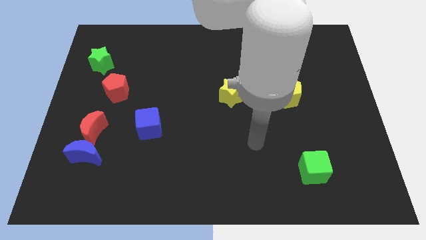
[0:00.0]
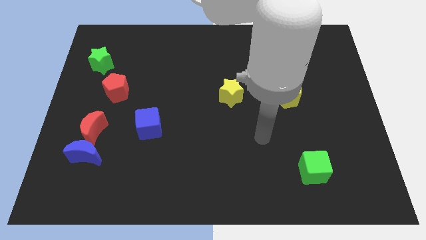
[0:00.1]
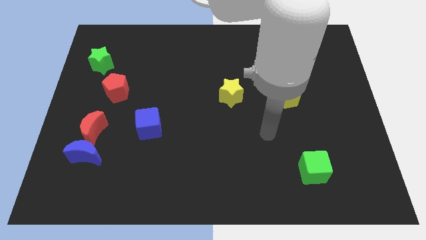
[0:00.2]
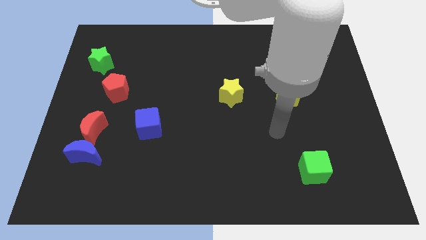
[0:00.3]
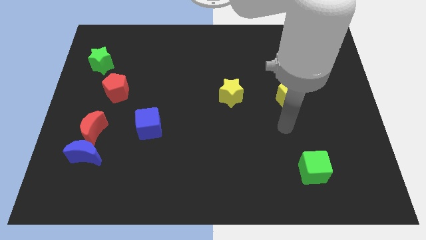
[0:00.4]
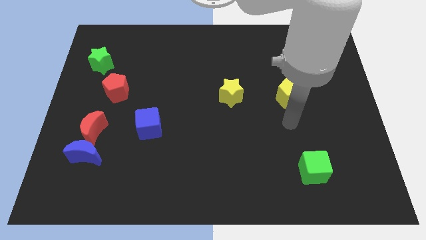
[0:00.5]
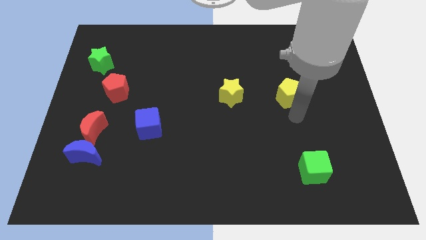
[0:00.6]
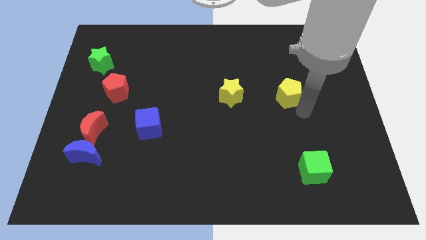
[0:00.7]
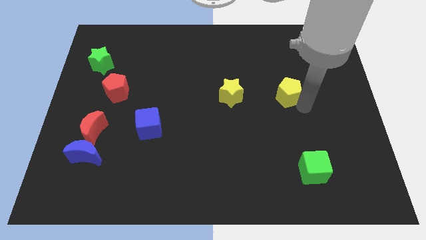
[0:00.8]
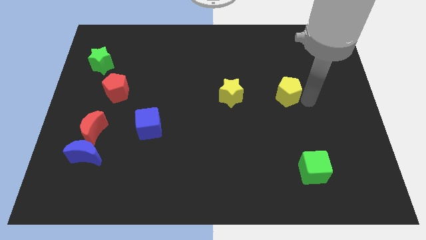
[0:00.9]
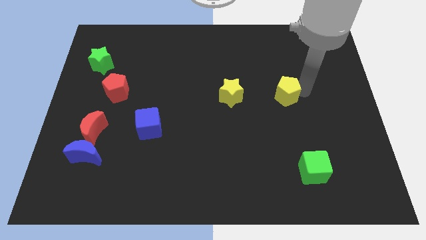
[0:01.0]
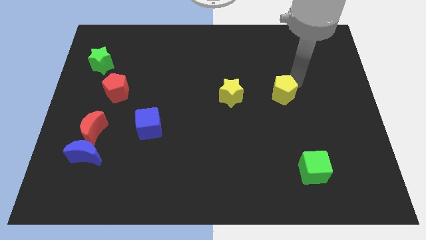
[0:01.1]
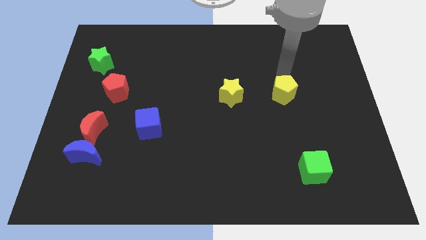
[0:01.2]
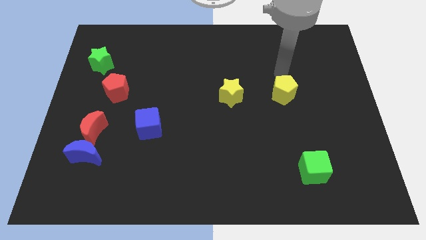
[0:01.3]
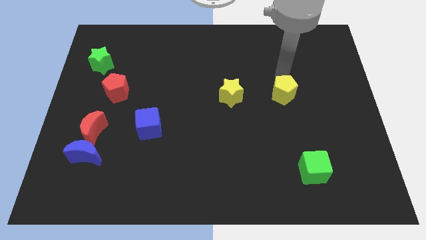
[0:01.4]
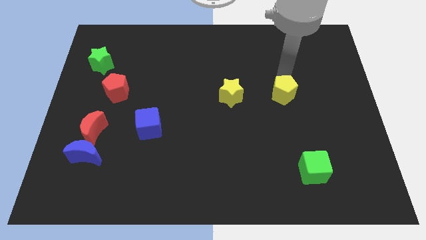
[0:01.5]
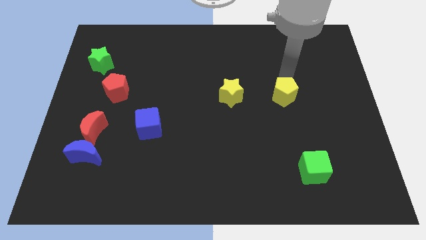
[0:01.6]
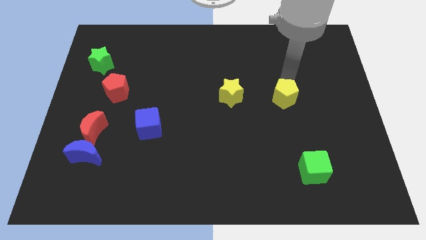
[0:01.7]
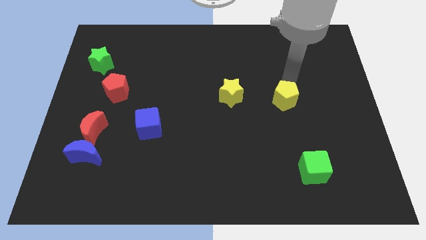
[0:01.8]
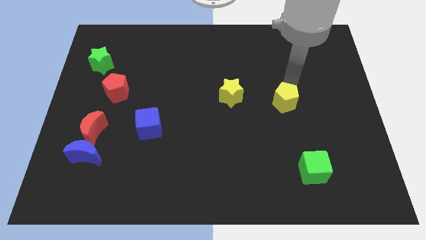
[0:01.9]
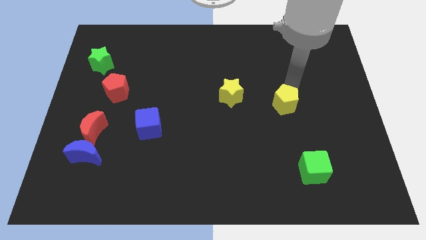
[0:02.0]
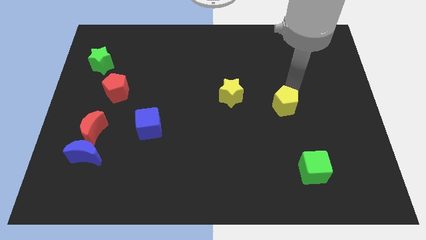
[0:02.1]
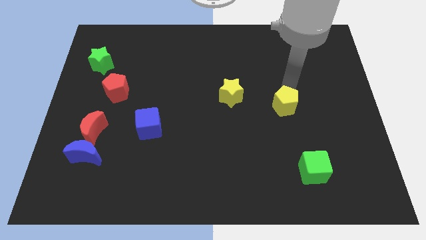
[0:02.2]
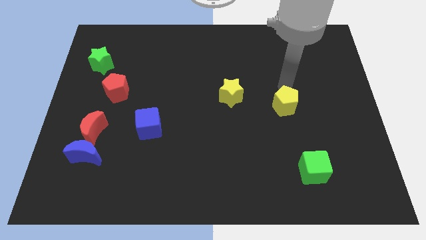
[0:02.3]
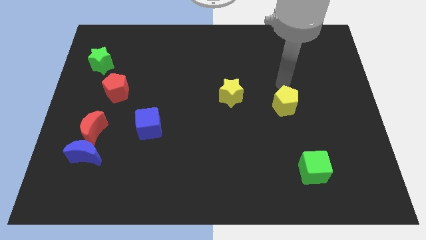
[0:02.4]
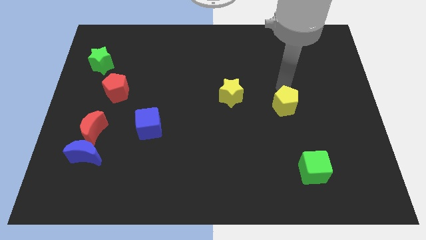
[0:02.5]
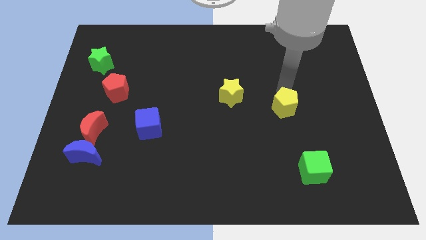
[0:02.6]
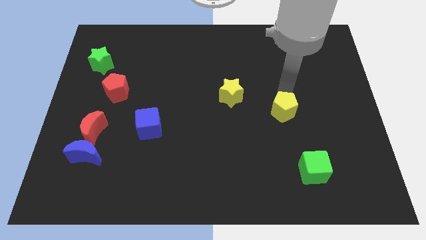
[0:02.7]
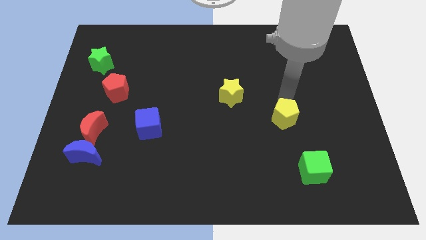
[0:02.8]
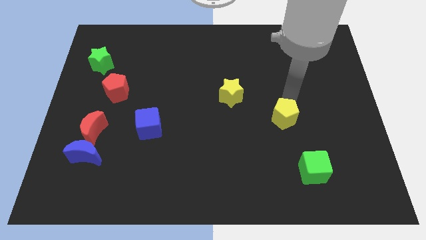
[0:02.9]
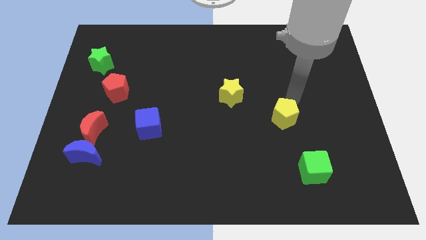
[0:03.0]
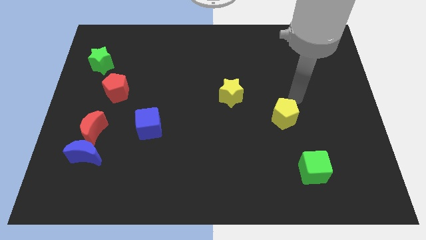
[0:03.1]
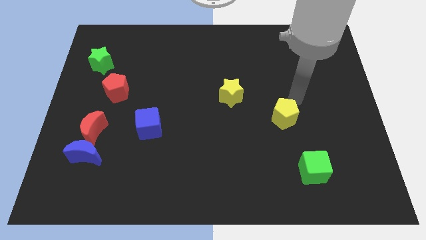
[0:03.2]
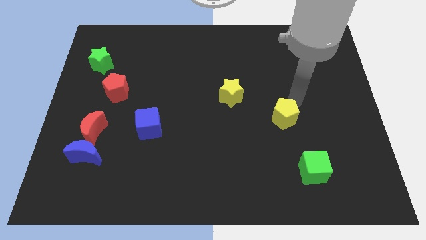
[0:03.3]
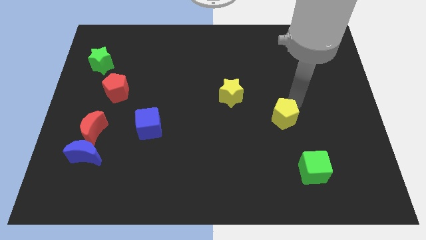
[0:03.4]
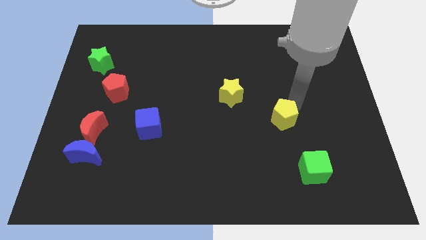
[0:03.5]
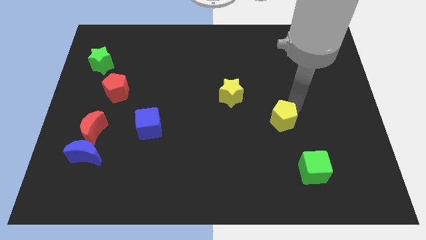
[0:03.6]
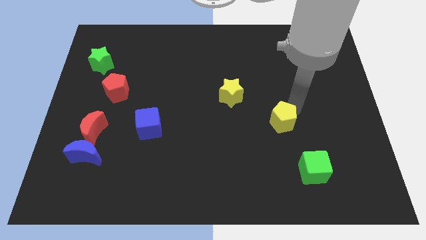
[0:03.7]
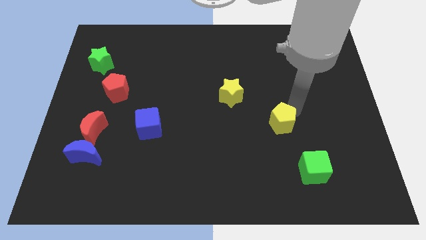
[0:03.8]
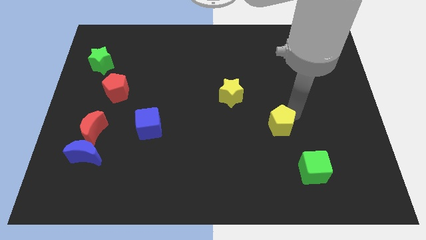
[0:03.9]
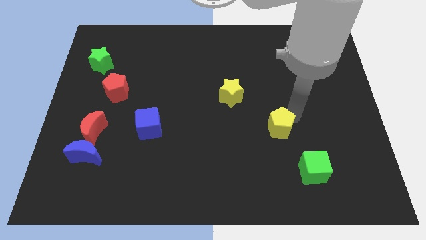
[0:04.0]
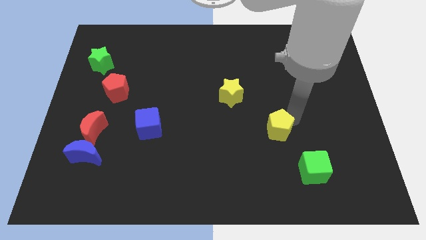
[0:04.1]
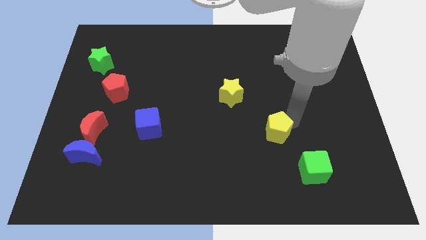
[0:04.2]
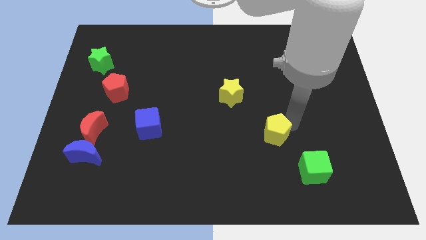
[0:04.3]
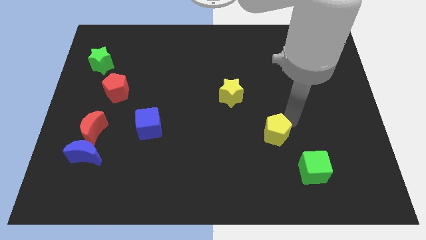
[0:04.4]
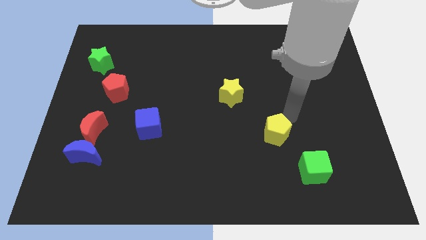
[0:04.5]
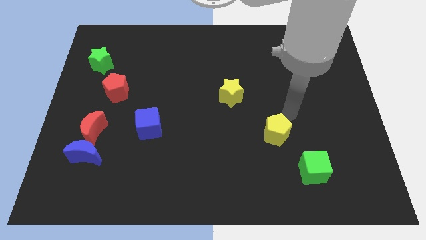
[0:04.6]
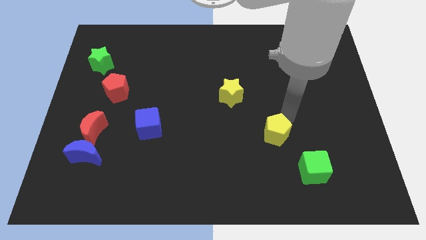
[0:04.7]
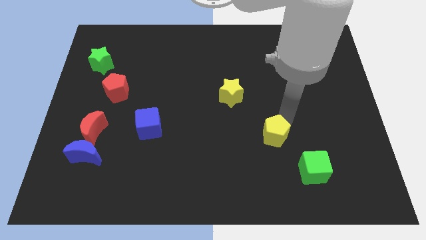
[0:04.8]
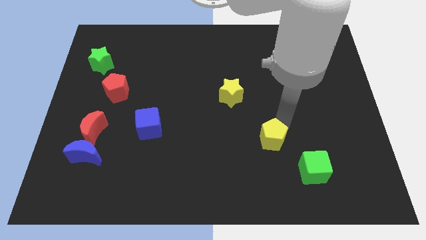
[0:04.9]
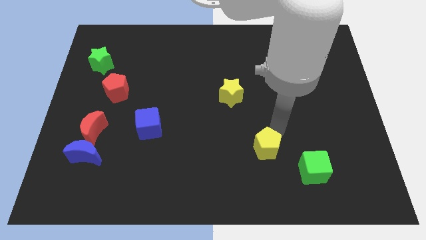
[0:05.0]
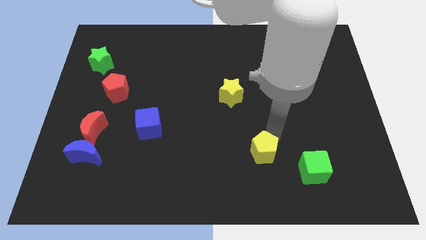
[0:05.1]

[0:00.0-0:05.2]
put the yellow pentagon to the left of the green cube

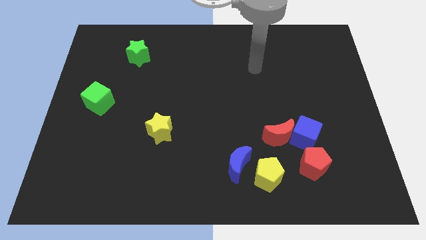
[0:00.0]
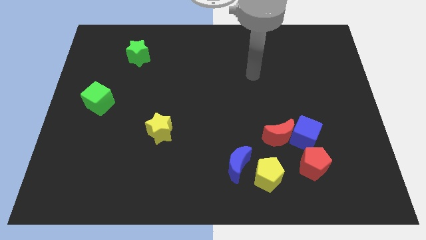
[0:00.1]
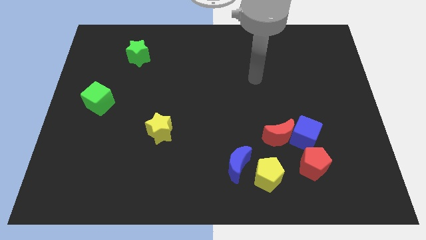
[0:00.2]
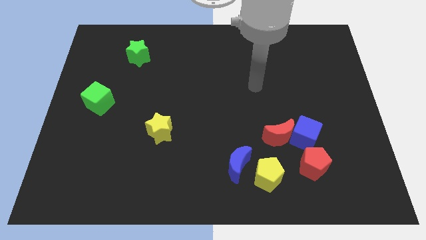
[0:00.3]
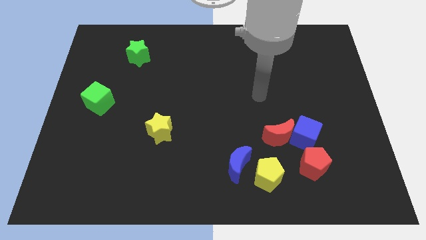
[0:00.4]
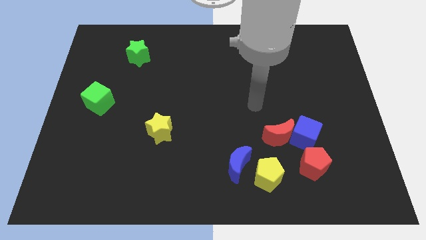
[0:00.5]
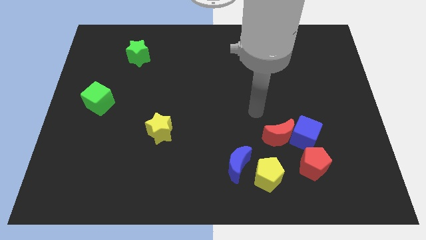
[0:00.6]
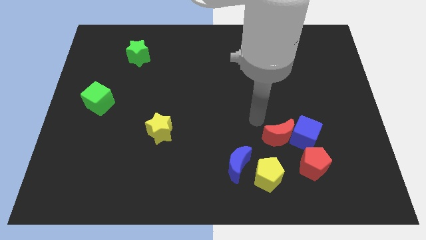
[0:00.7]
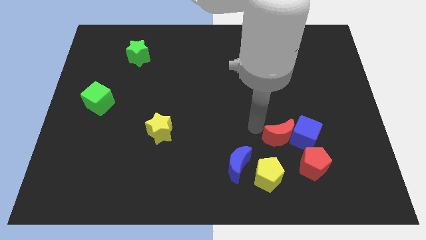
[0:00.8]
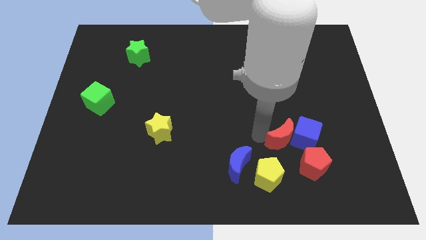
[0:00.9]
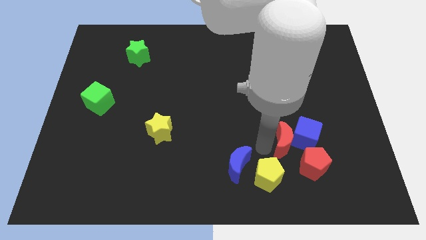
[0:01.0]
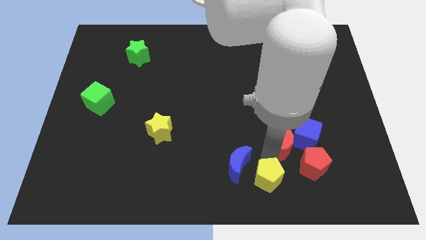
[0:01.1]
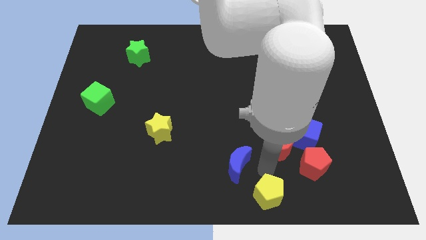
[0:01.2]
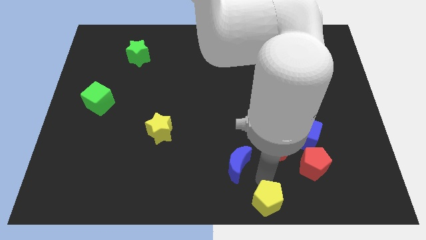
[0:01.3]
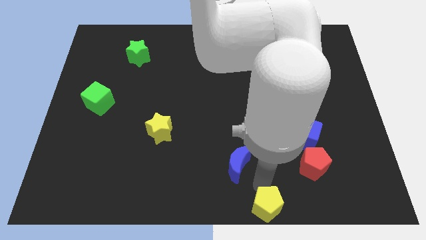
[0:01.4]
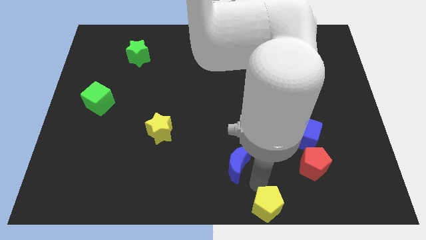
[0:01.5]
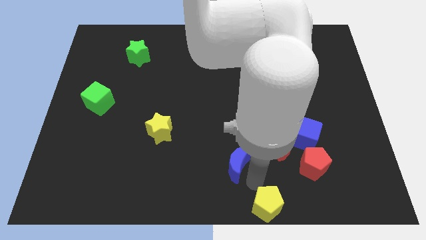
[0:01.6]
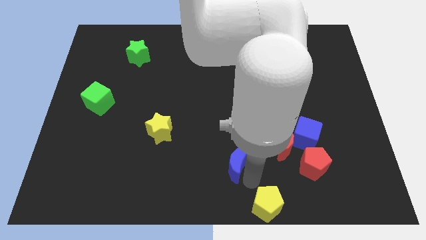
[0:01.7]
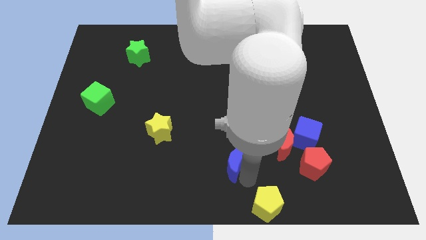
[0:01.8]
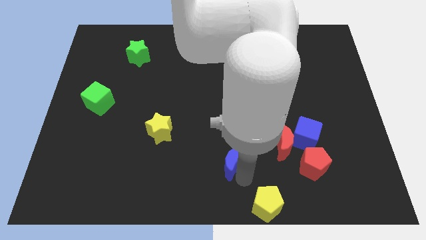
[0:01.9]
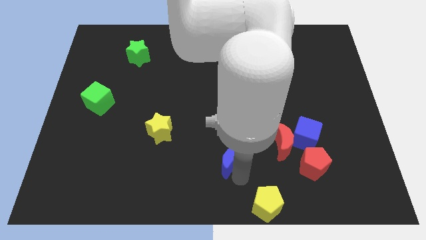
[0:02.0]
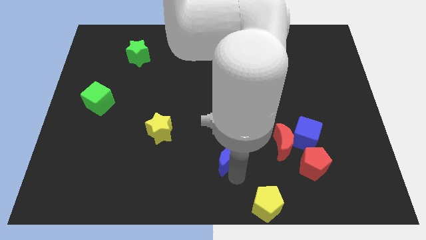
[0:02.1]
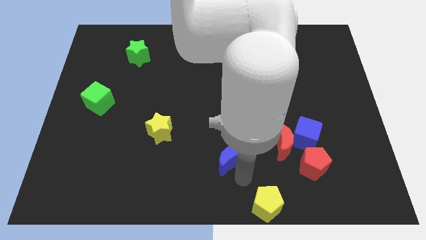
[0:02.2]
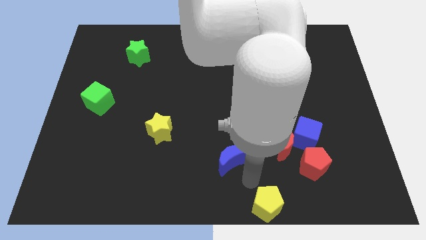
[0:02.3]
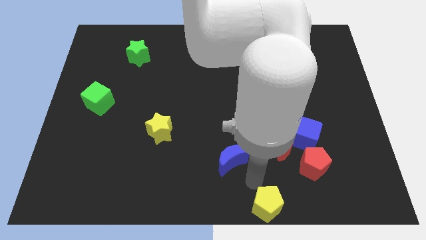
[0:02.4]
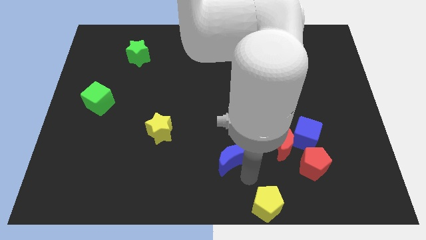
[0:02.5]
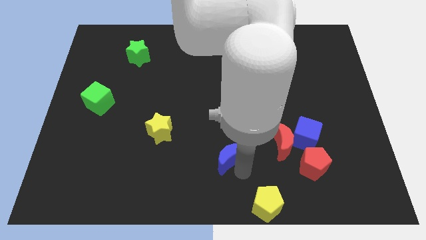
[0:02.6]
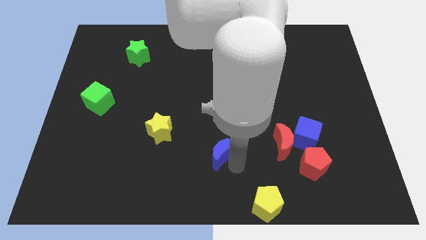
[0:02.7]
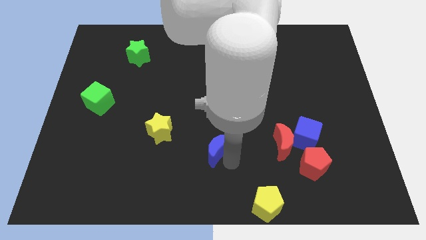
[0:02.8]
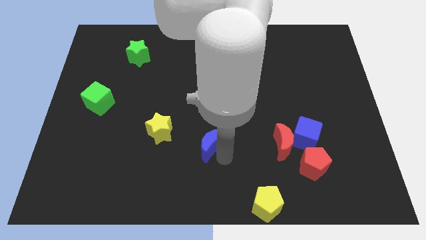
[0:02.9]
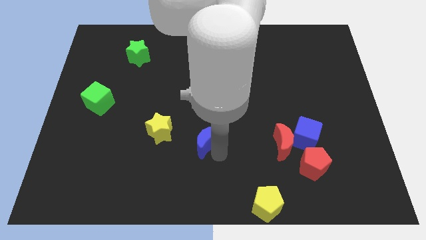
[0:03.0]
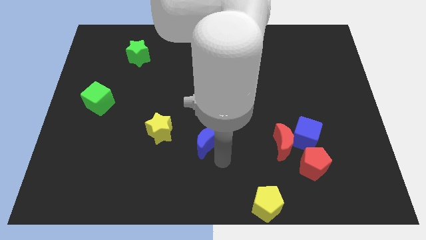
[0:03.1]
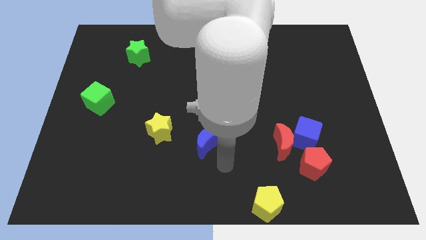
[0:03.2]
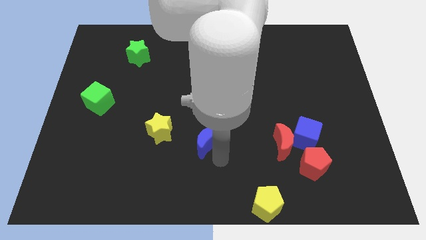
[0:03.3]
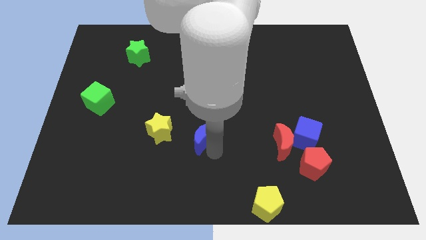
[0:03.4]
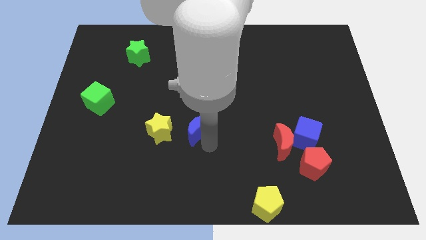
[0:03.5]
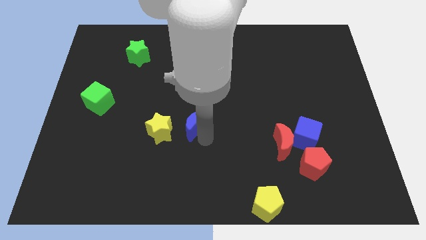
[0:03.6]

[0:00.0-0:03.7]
put the blue moon to the top right side of the yellow star
